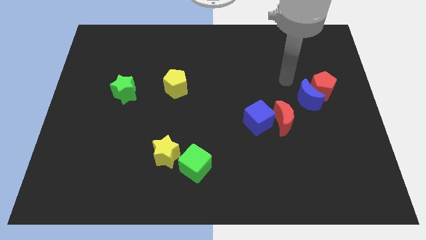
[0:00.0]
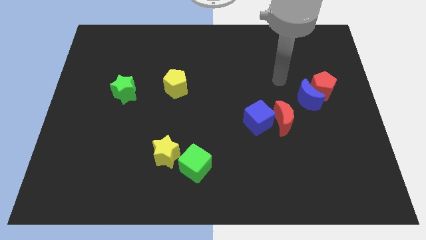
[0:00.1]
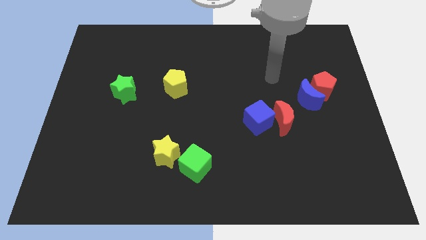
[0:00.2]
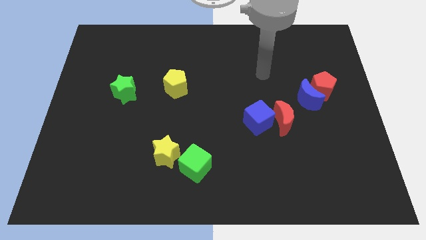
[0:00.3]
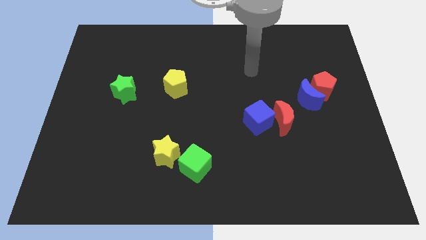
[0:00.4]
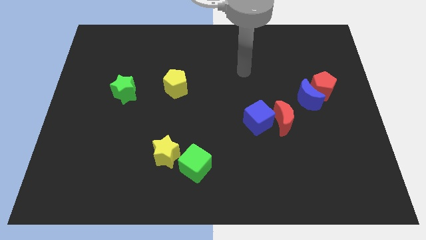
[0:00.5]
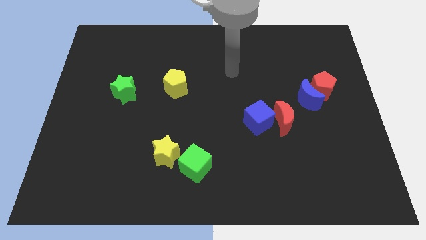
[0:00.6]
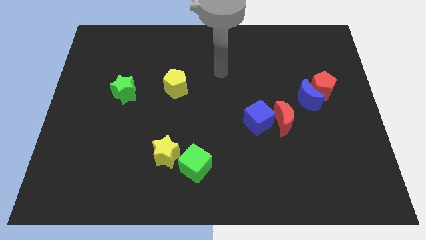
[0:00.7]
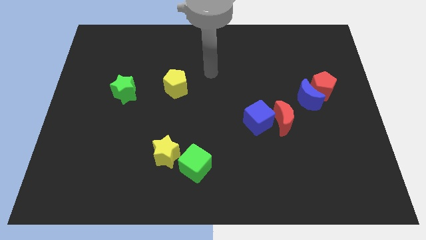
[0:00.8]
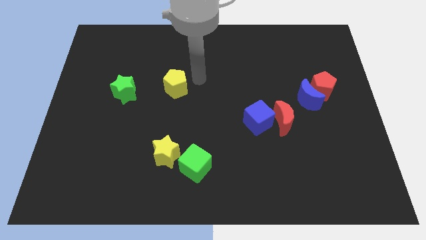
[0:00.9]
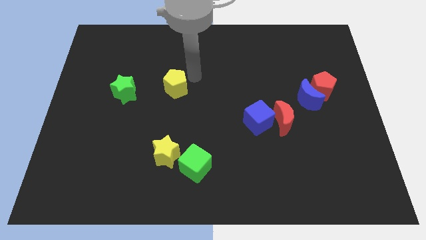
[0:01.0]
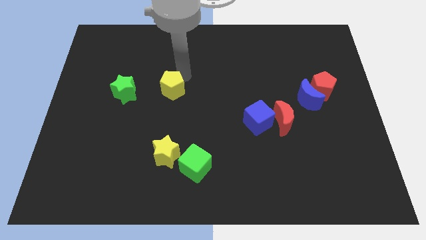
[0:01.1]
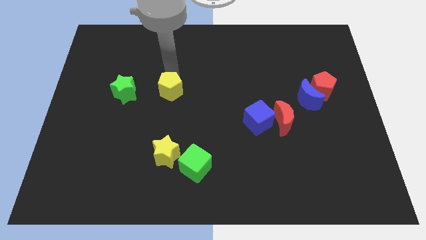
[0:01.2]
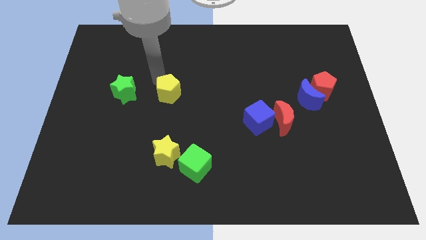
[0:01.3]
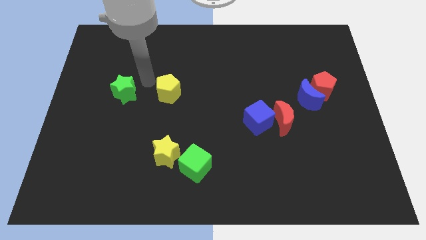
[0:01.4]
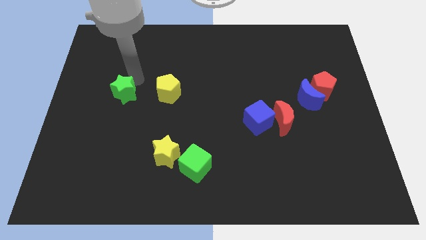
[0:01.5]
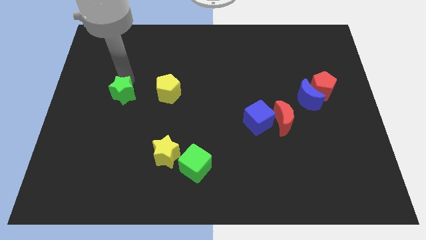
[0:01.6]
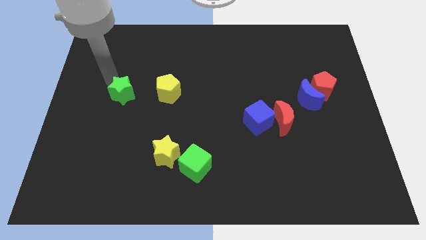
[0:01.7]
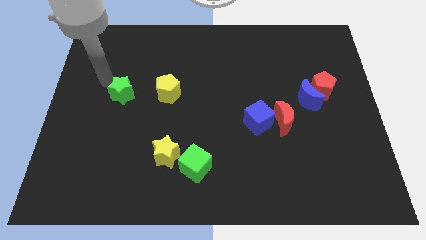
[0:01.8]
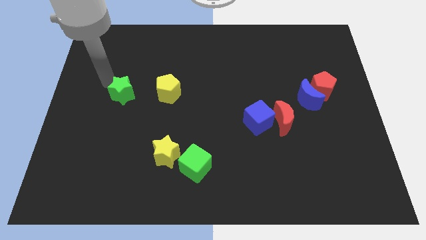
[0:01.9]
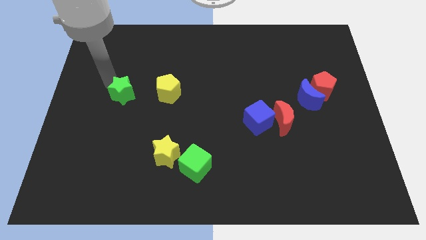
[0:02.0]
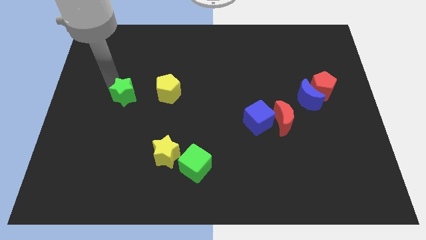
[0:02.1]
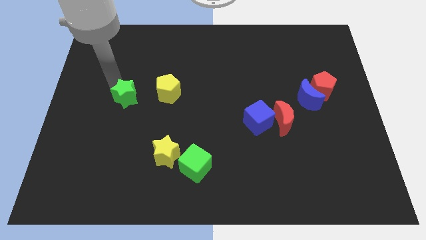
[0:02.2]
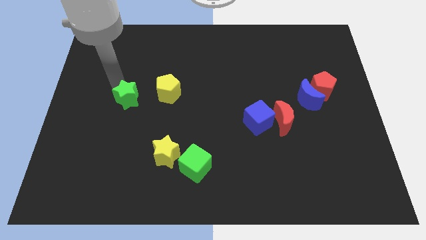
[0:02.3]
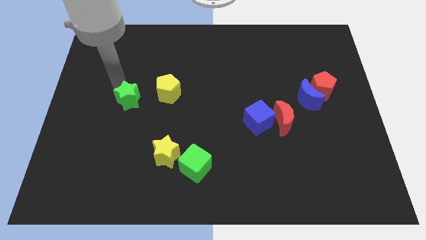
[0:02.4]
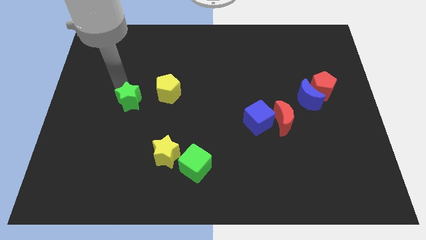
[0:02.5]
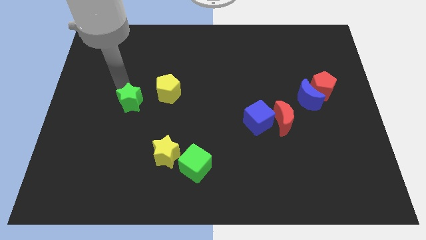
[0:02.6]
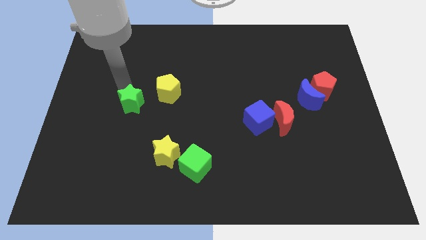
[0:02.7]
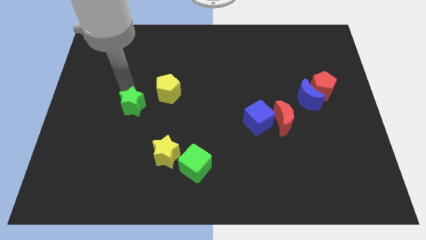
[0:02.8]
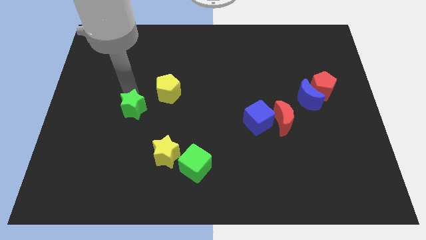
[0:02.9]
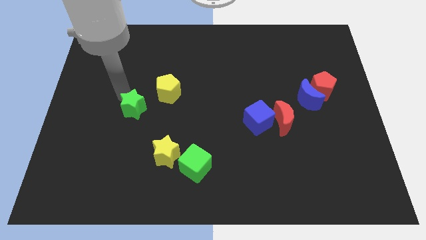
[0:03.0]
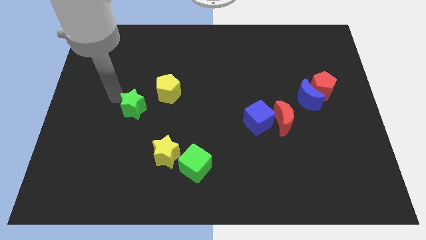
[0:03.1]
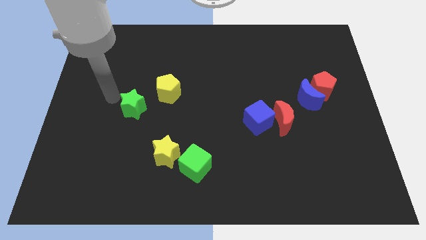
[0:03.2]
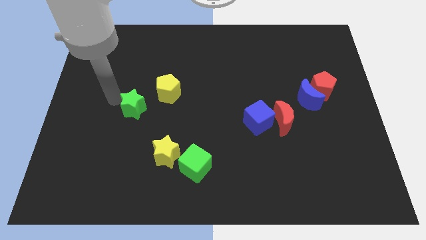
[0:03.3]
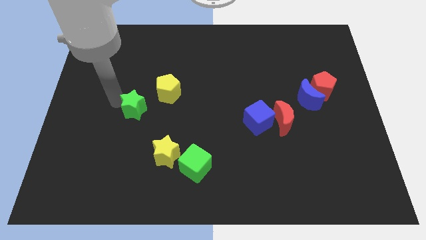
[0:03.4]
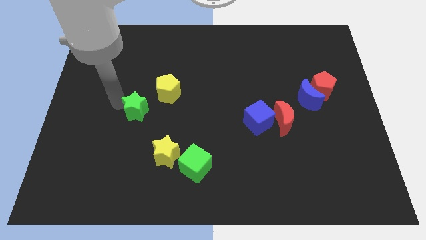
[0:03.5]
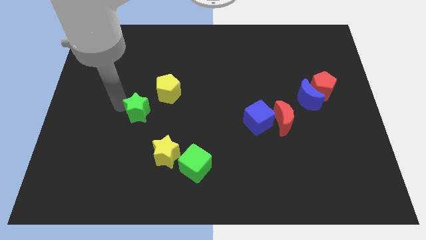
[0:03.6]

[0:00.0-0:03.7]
slide the green star down and right diagonally a bit

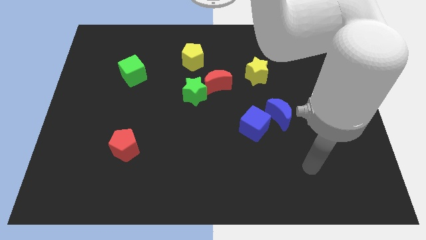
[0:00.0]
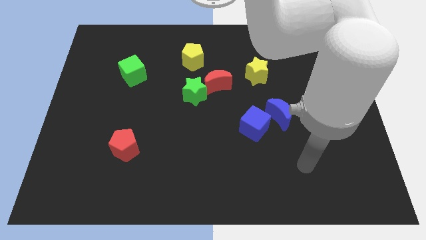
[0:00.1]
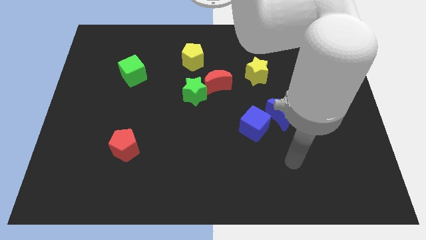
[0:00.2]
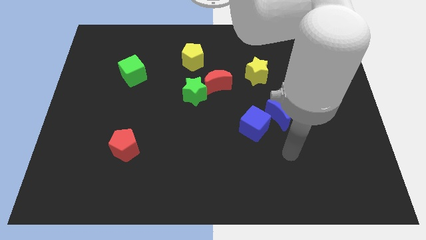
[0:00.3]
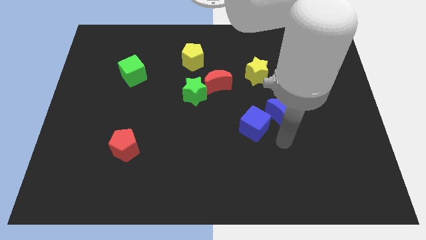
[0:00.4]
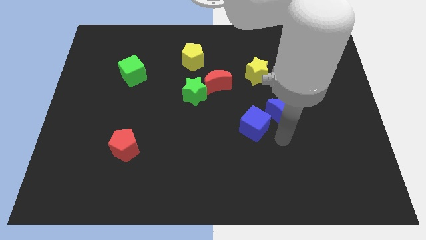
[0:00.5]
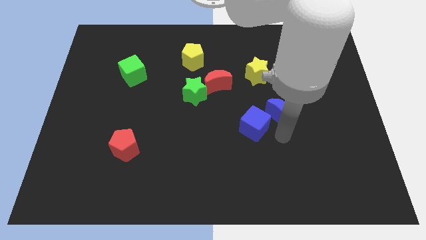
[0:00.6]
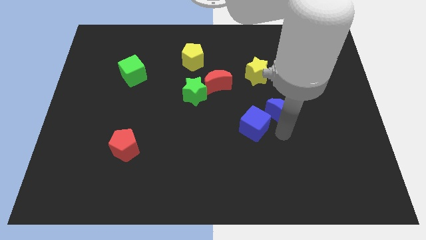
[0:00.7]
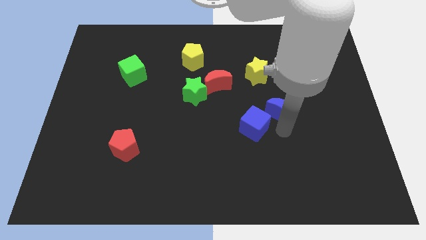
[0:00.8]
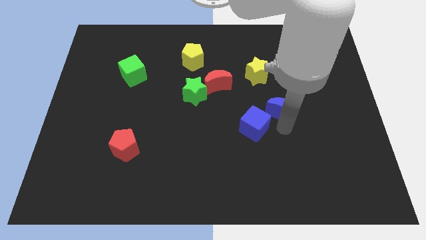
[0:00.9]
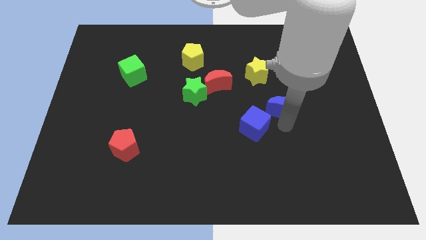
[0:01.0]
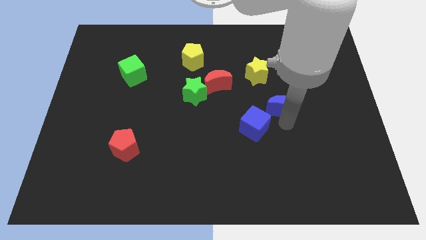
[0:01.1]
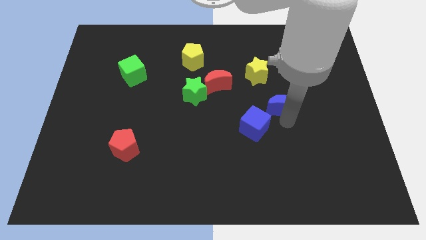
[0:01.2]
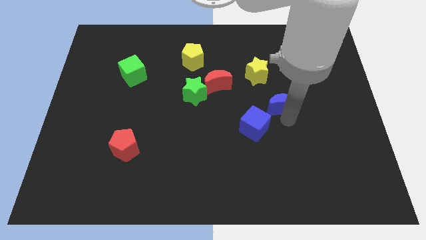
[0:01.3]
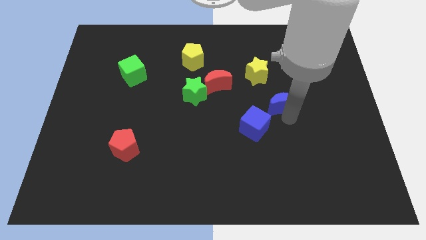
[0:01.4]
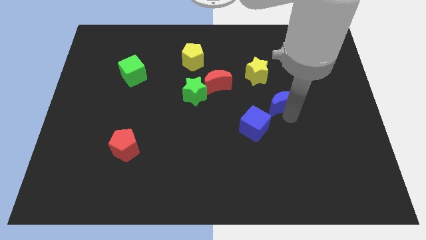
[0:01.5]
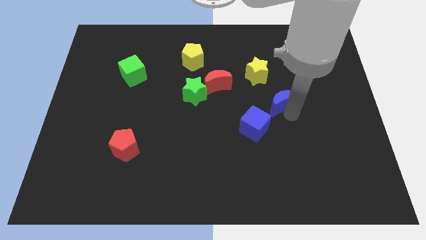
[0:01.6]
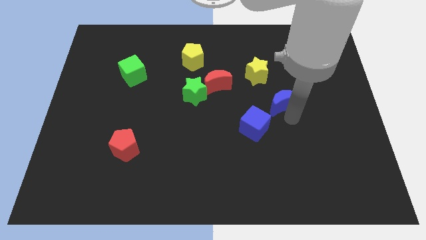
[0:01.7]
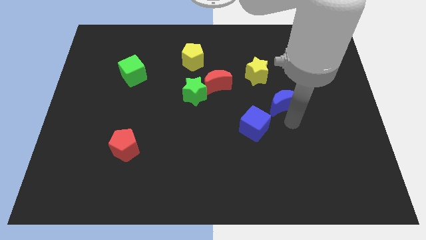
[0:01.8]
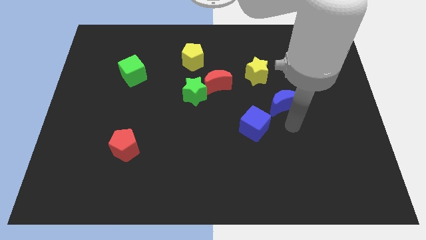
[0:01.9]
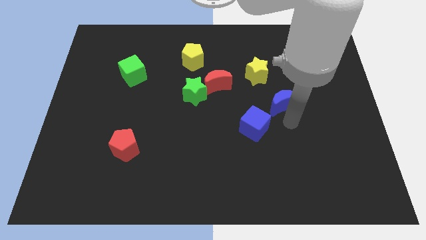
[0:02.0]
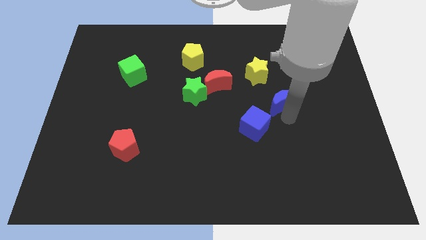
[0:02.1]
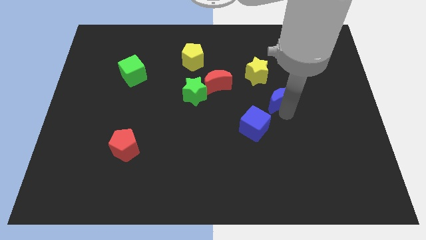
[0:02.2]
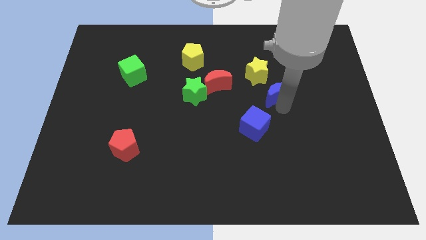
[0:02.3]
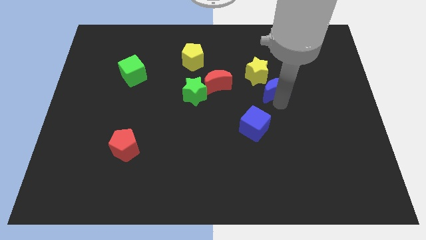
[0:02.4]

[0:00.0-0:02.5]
slide the blue moon upwards a bit

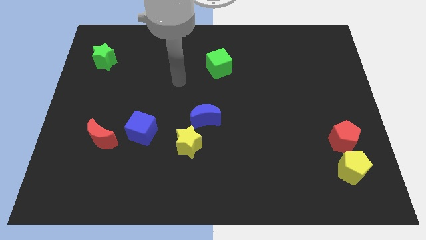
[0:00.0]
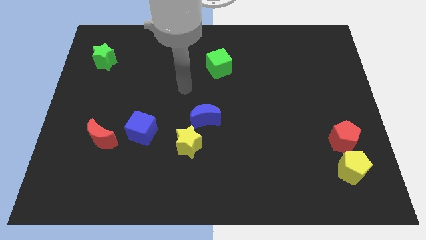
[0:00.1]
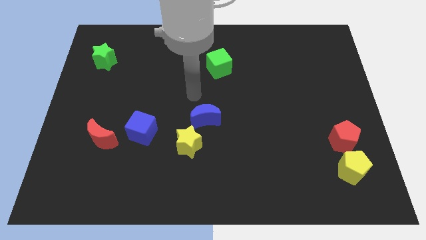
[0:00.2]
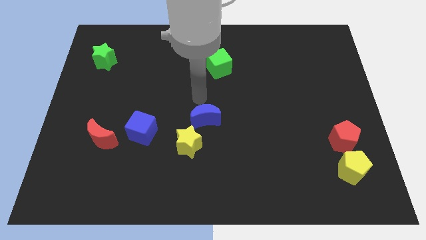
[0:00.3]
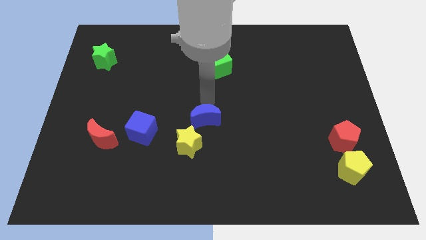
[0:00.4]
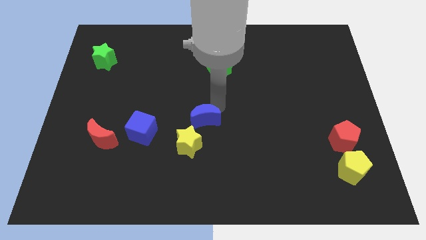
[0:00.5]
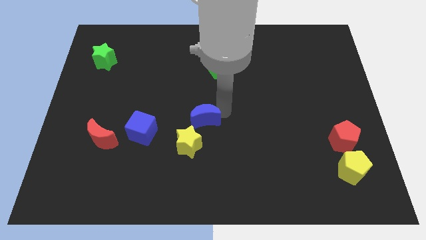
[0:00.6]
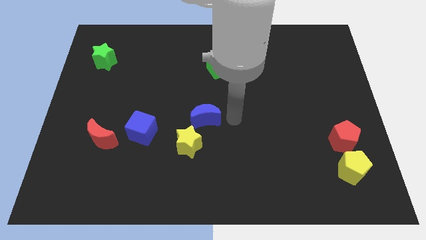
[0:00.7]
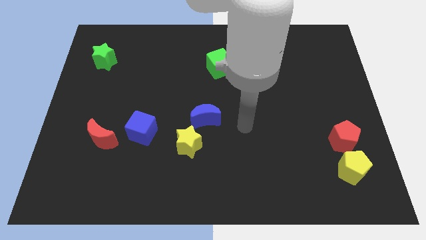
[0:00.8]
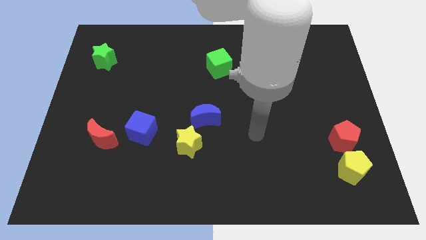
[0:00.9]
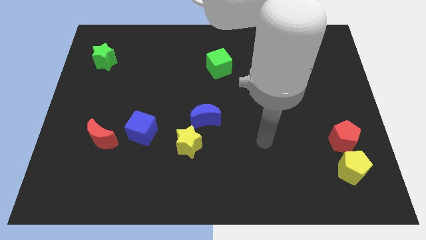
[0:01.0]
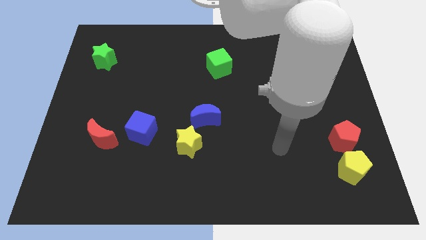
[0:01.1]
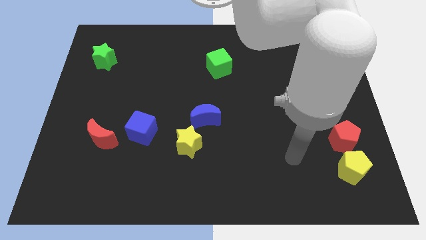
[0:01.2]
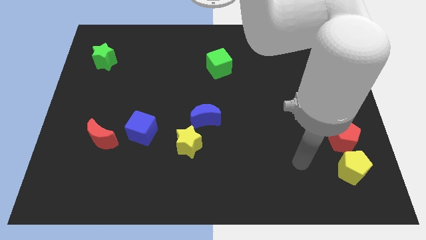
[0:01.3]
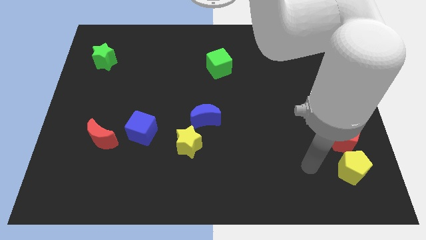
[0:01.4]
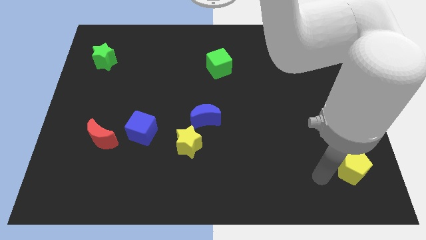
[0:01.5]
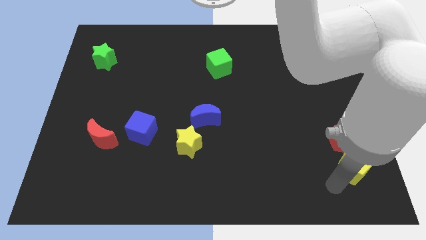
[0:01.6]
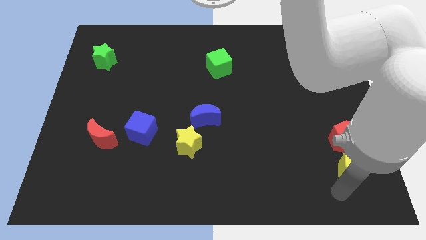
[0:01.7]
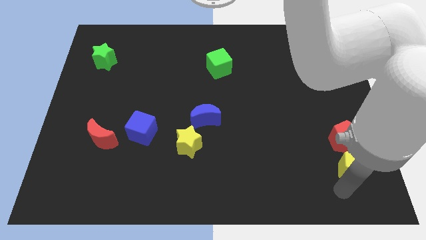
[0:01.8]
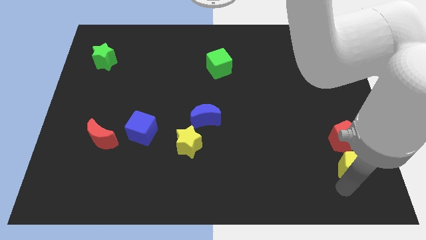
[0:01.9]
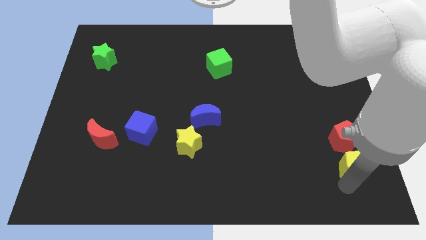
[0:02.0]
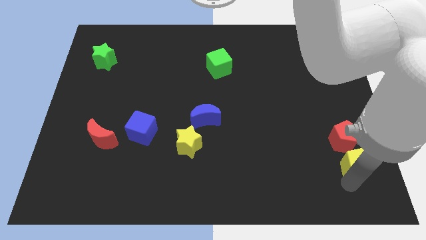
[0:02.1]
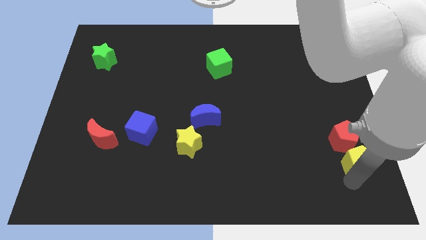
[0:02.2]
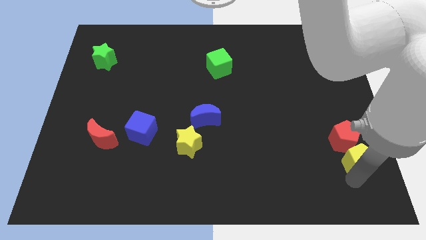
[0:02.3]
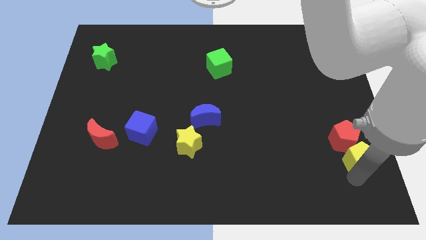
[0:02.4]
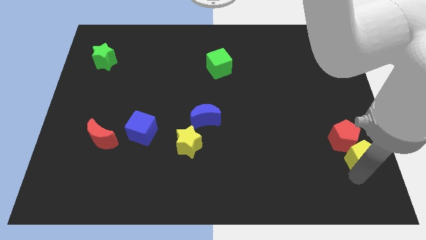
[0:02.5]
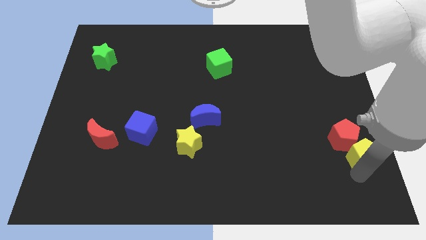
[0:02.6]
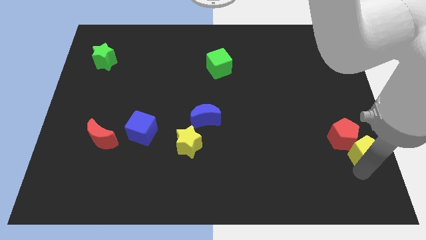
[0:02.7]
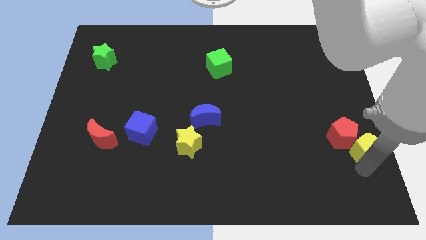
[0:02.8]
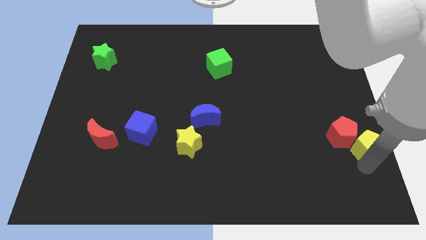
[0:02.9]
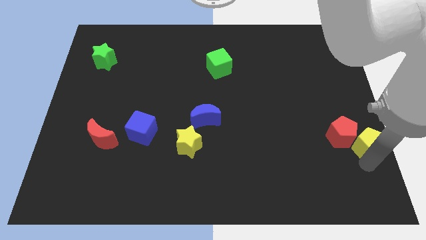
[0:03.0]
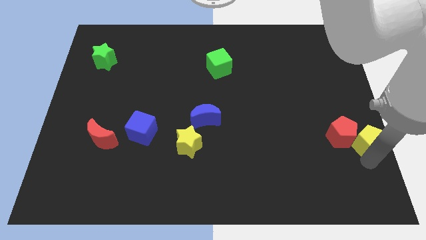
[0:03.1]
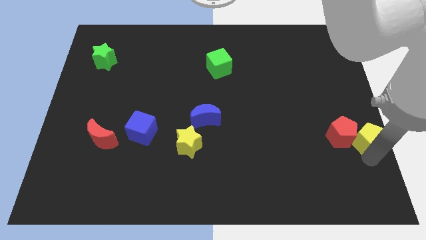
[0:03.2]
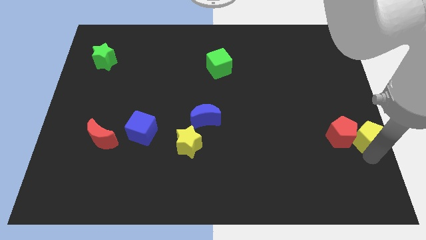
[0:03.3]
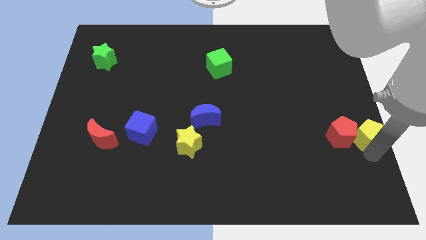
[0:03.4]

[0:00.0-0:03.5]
slightly push the yellow pentagon up
